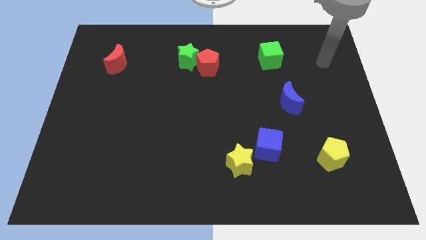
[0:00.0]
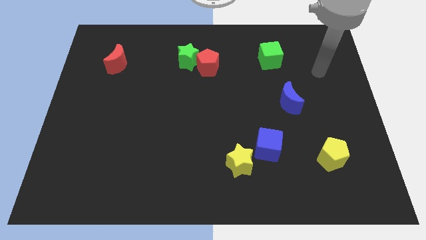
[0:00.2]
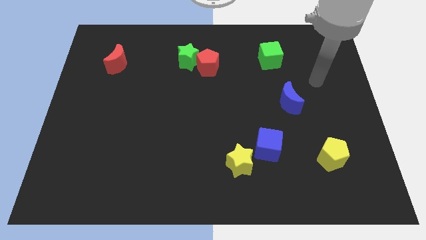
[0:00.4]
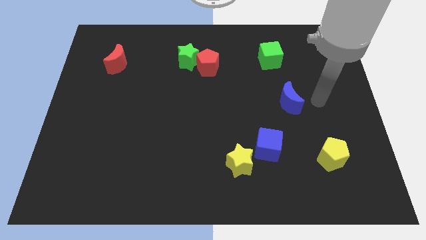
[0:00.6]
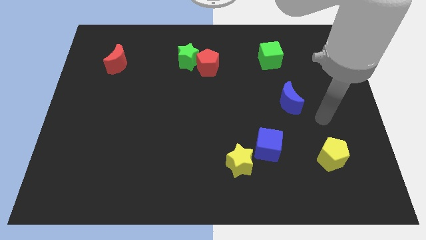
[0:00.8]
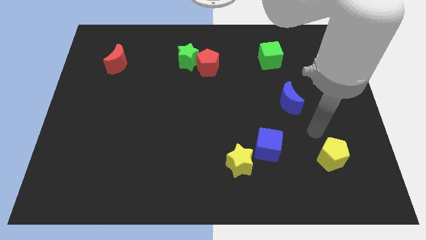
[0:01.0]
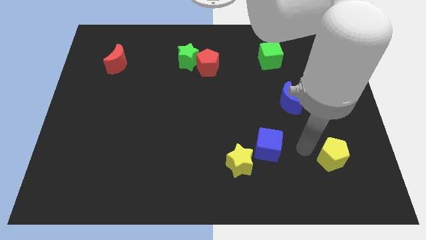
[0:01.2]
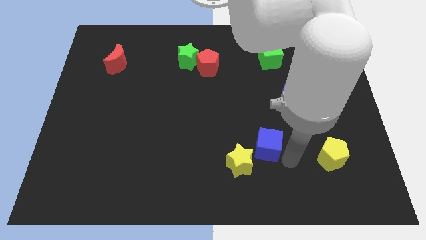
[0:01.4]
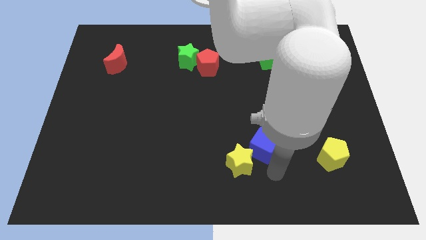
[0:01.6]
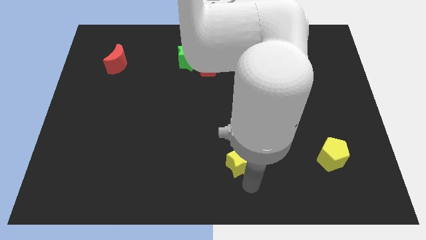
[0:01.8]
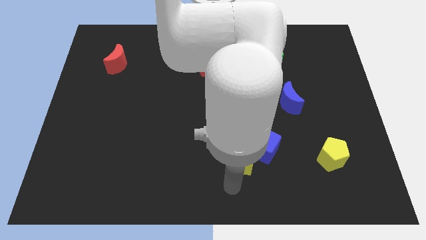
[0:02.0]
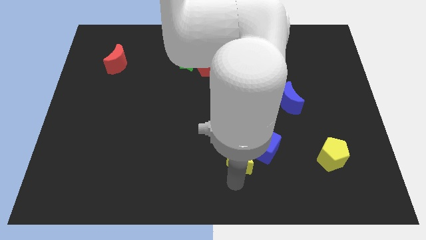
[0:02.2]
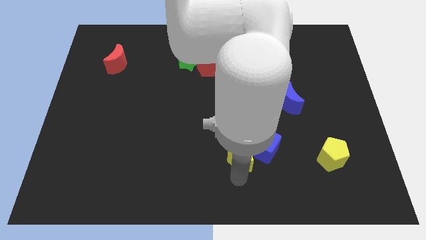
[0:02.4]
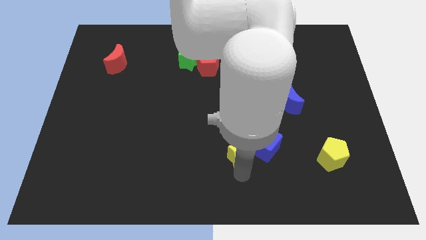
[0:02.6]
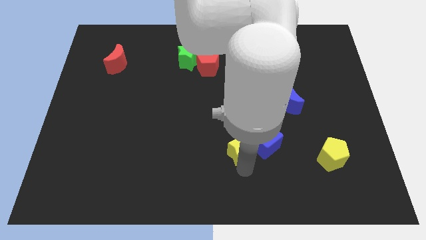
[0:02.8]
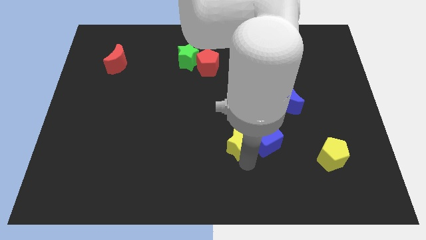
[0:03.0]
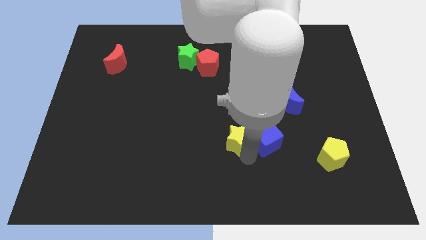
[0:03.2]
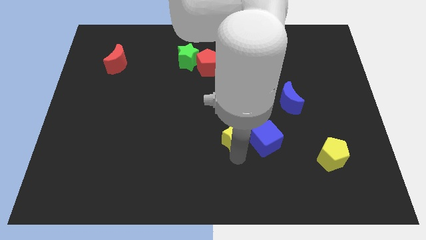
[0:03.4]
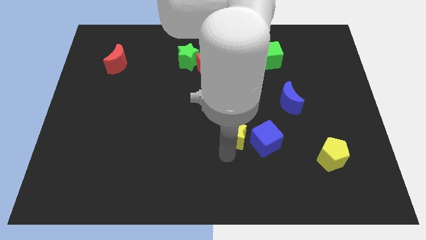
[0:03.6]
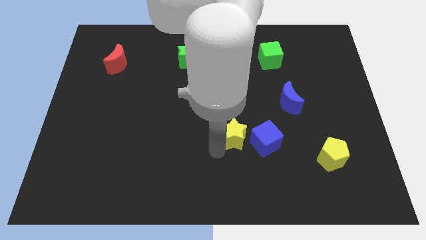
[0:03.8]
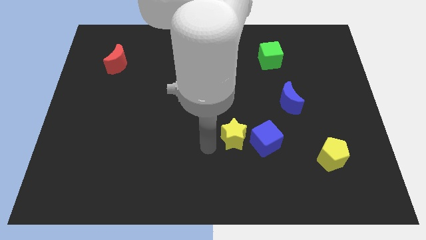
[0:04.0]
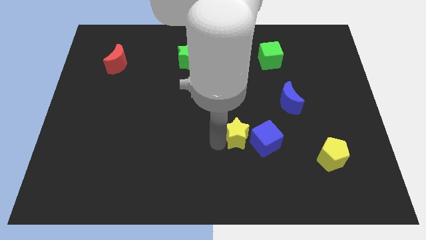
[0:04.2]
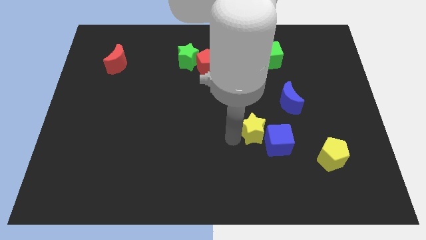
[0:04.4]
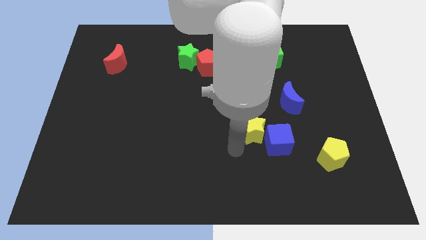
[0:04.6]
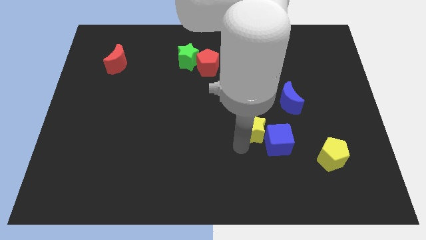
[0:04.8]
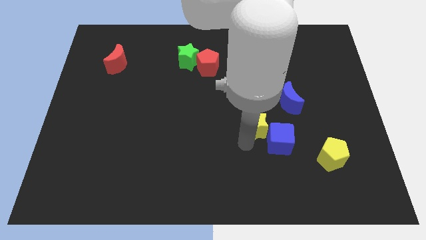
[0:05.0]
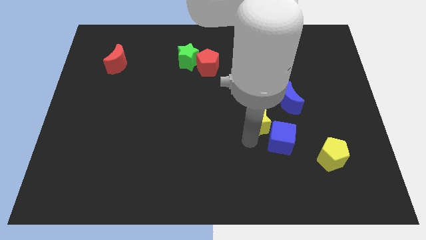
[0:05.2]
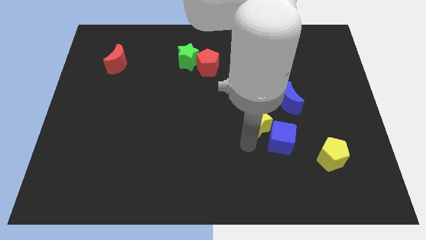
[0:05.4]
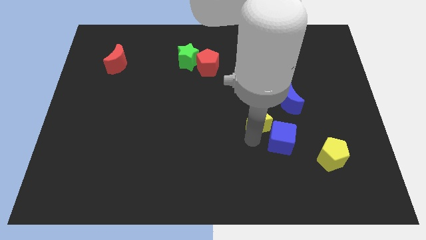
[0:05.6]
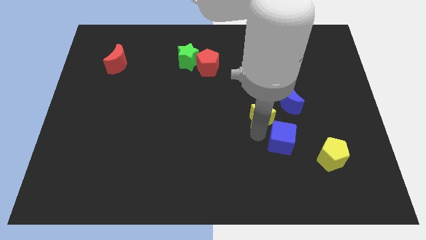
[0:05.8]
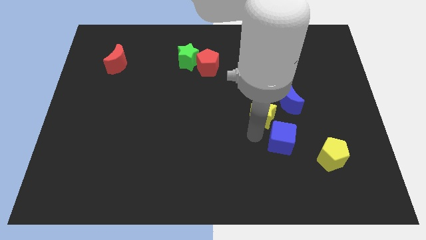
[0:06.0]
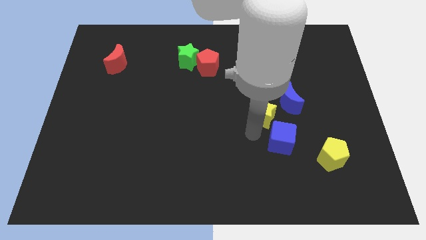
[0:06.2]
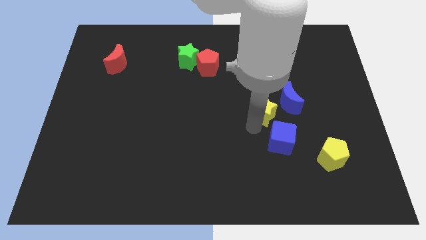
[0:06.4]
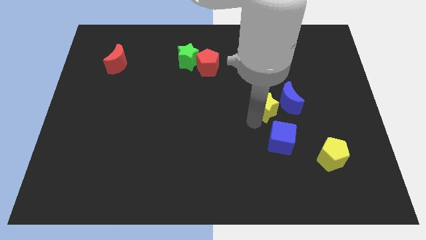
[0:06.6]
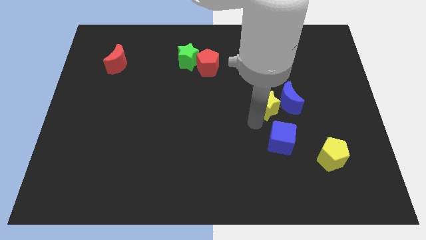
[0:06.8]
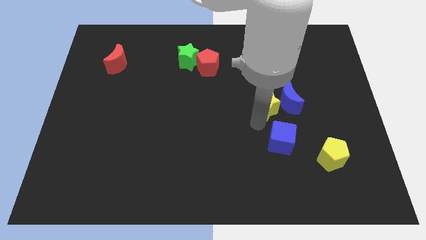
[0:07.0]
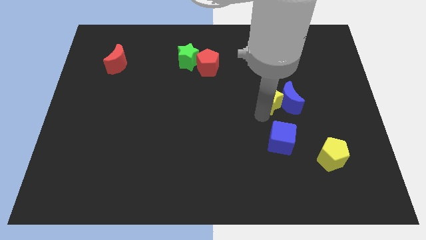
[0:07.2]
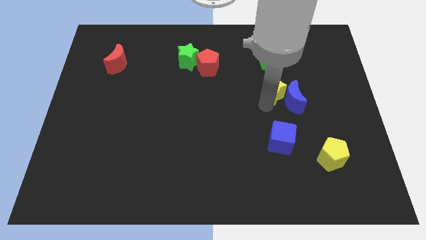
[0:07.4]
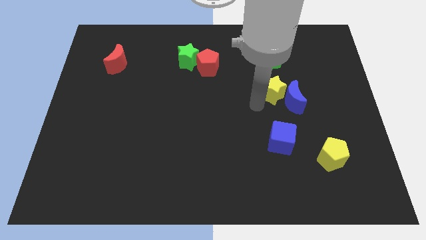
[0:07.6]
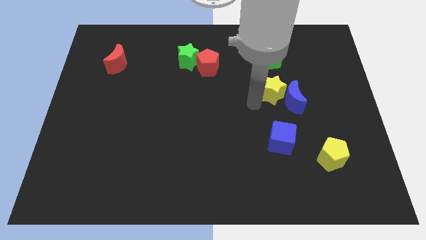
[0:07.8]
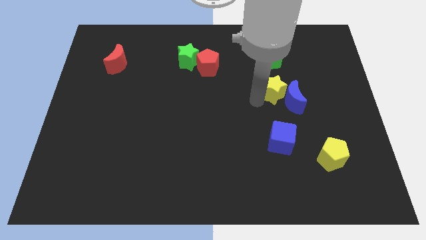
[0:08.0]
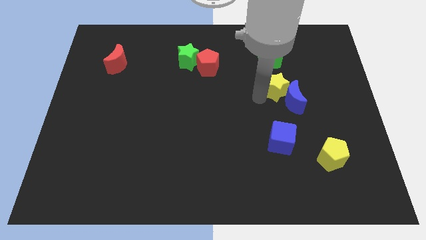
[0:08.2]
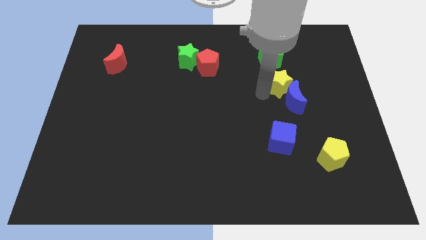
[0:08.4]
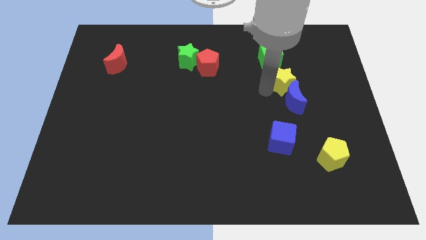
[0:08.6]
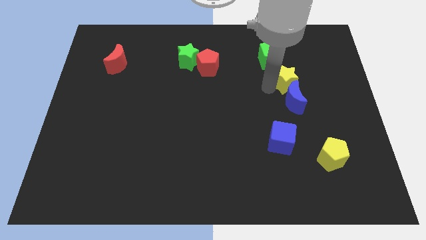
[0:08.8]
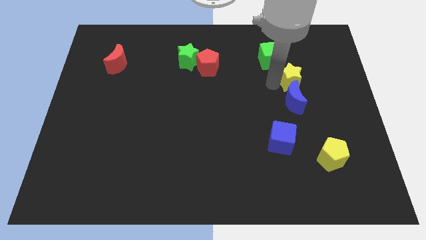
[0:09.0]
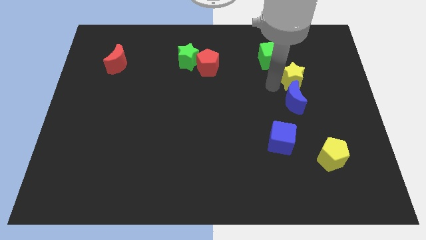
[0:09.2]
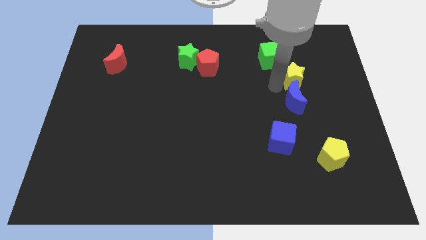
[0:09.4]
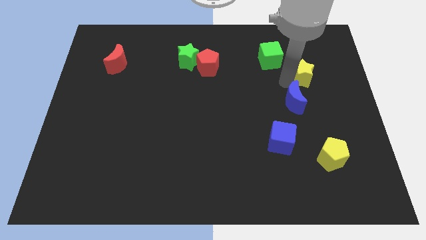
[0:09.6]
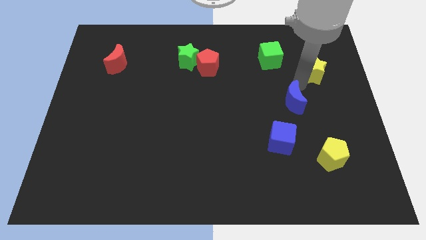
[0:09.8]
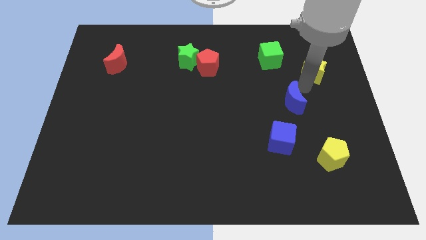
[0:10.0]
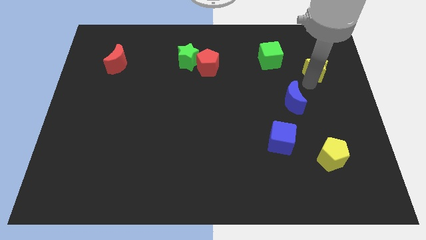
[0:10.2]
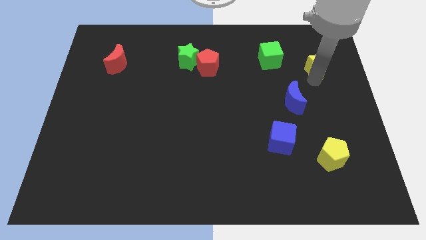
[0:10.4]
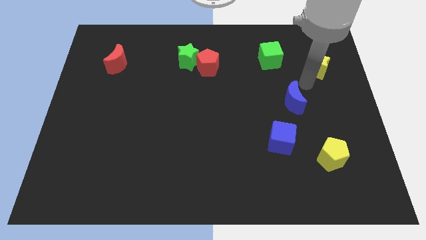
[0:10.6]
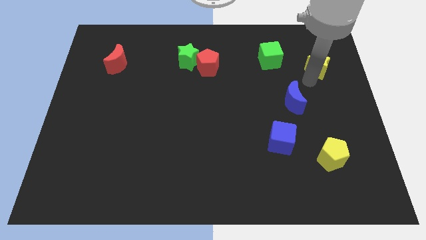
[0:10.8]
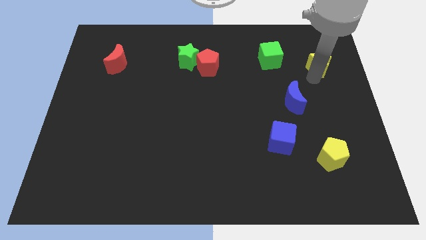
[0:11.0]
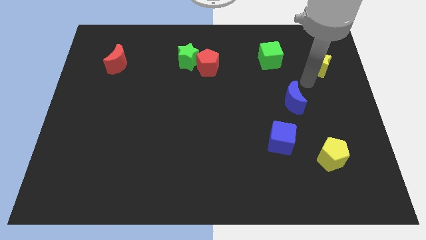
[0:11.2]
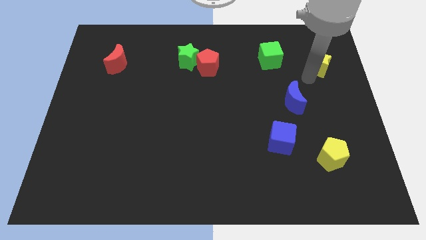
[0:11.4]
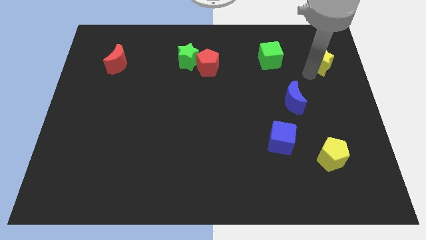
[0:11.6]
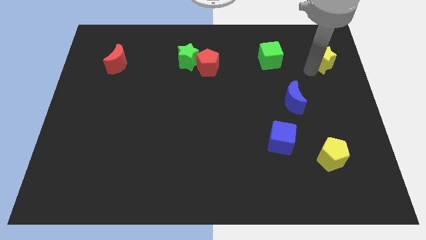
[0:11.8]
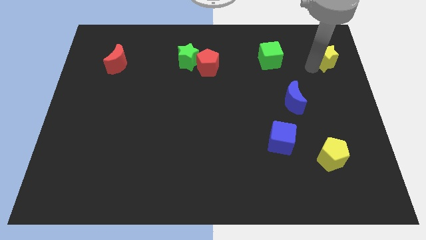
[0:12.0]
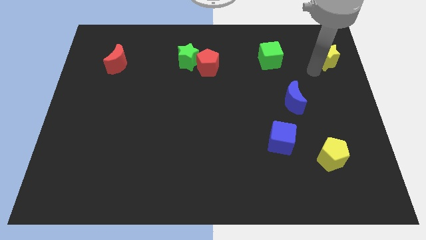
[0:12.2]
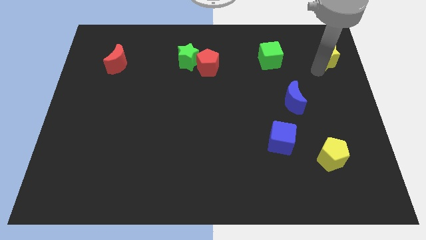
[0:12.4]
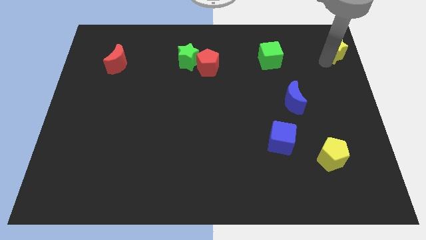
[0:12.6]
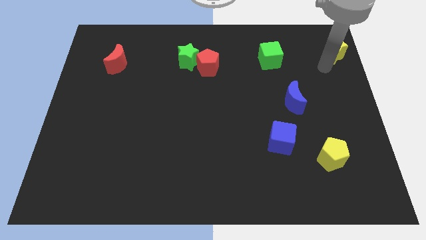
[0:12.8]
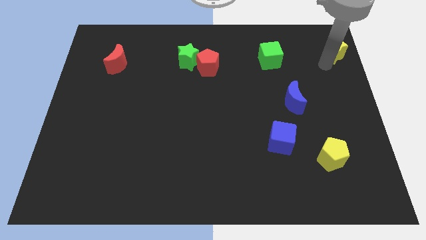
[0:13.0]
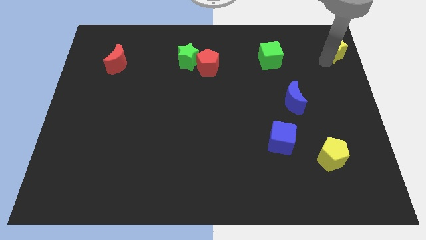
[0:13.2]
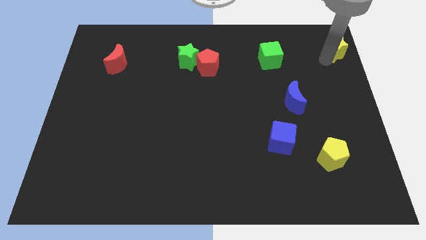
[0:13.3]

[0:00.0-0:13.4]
move the yellow star to the top right
